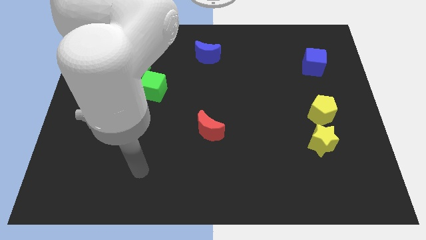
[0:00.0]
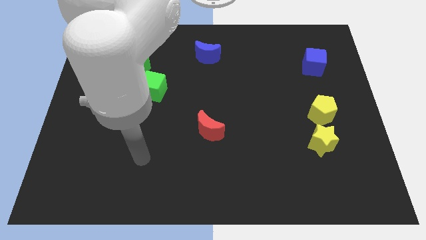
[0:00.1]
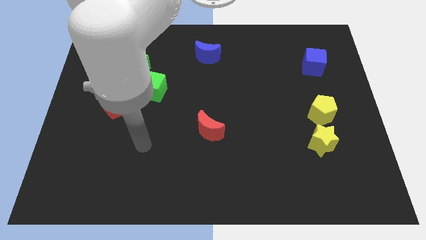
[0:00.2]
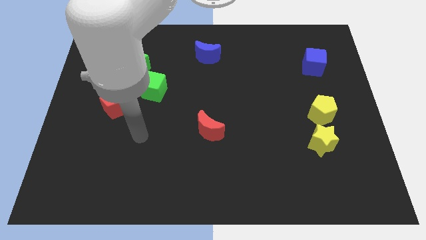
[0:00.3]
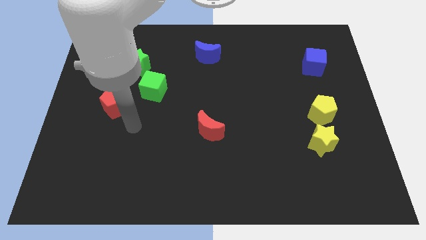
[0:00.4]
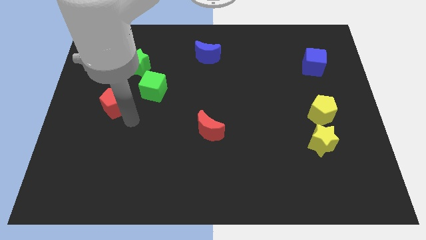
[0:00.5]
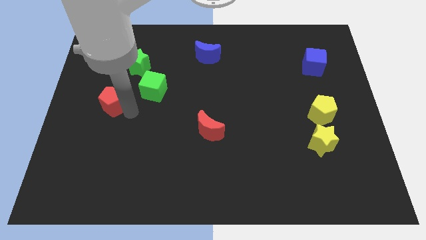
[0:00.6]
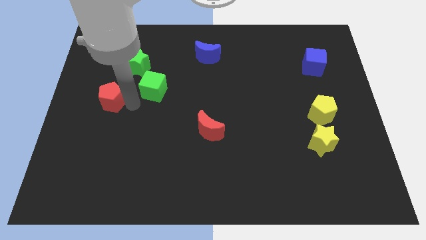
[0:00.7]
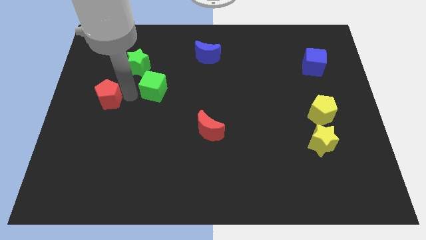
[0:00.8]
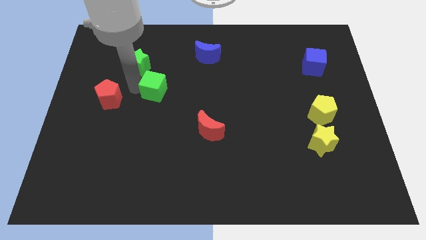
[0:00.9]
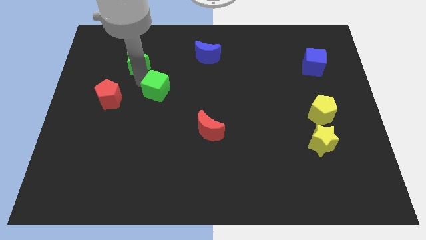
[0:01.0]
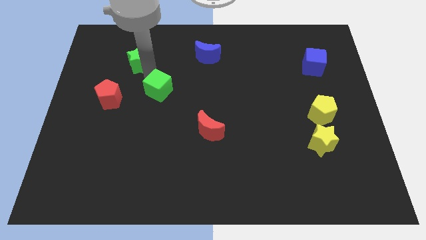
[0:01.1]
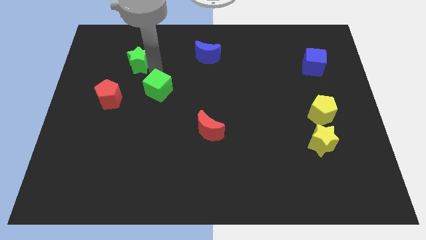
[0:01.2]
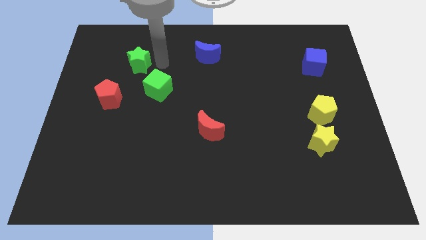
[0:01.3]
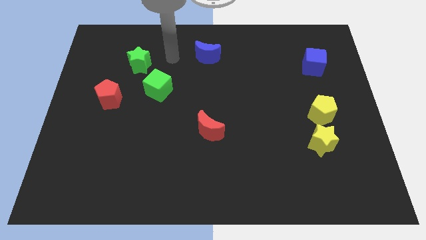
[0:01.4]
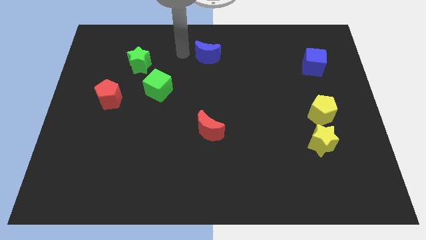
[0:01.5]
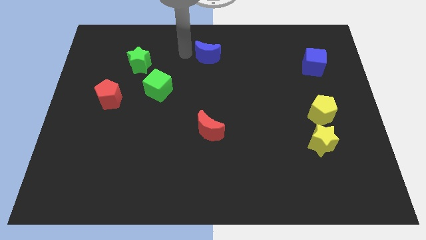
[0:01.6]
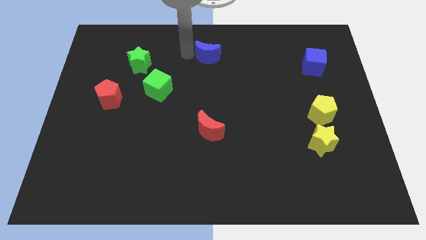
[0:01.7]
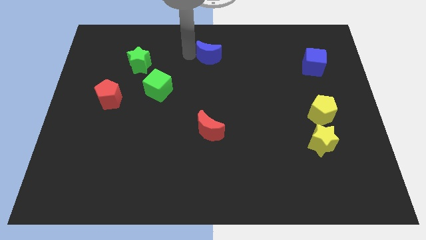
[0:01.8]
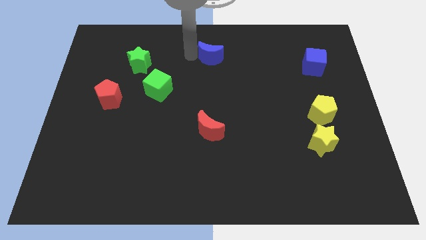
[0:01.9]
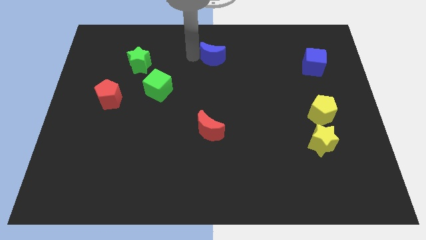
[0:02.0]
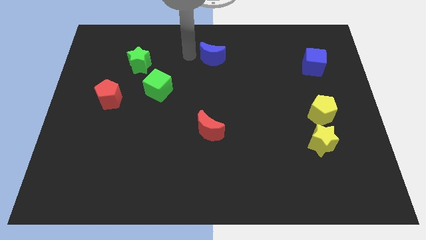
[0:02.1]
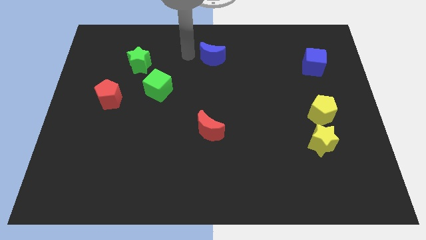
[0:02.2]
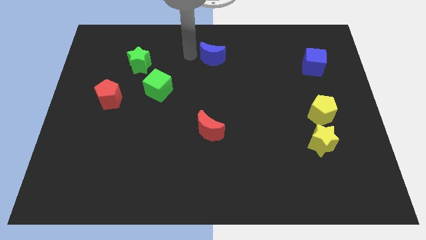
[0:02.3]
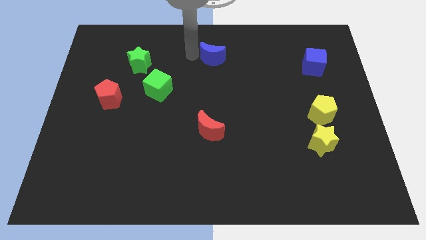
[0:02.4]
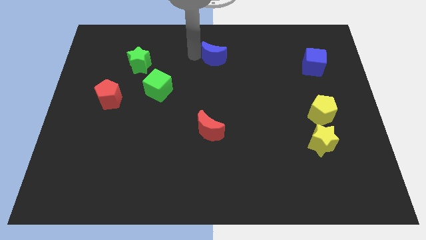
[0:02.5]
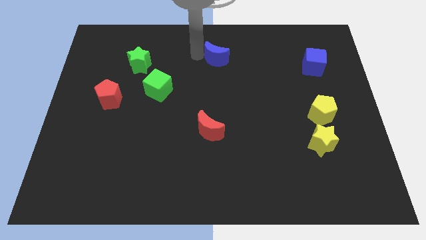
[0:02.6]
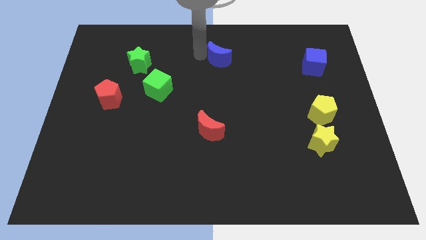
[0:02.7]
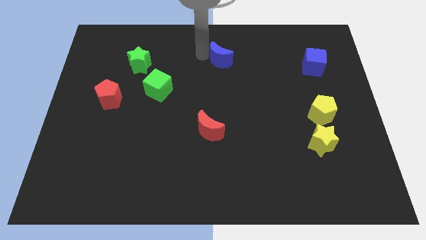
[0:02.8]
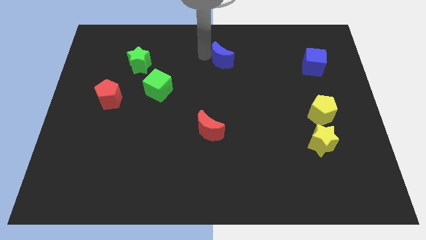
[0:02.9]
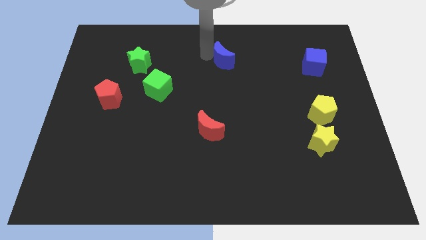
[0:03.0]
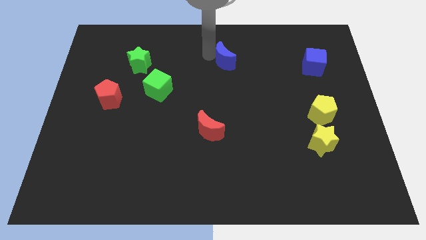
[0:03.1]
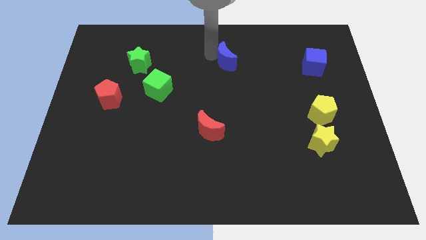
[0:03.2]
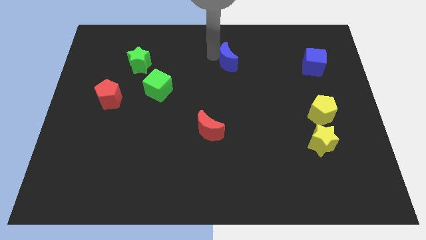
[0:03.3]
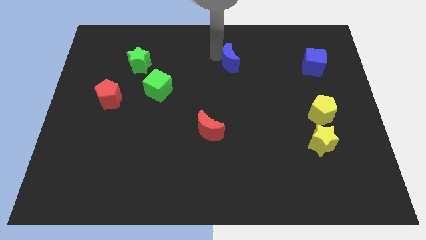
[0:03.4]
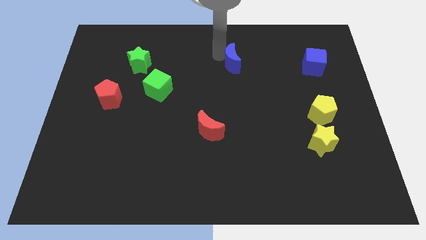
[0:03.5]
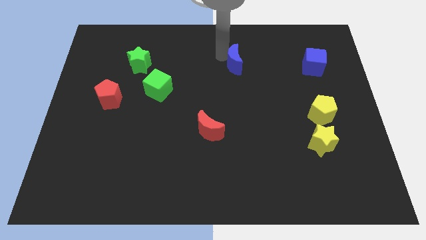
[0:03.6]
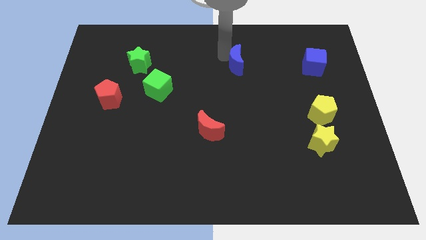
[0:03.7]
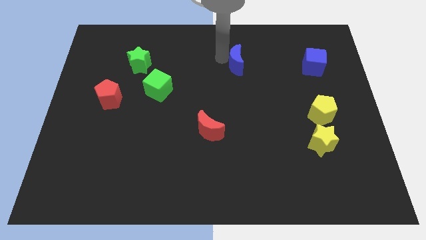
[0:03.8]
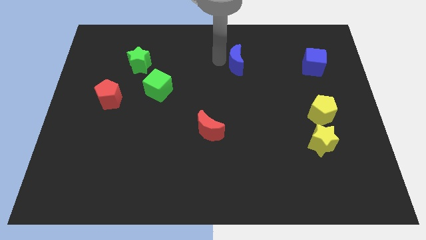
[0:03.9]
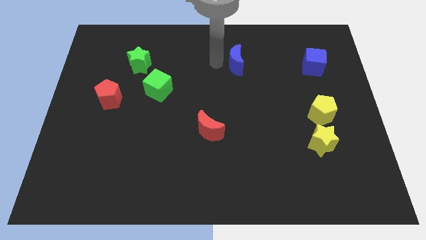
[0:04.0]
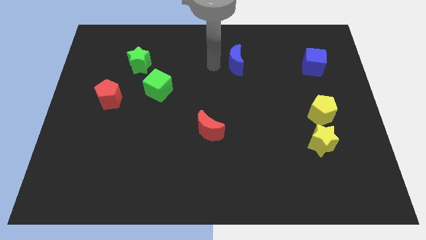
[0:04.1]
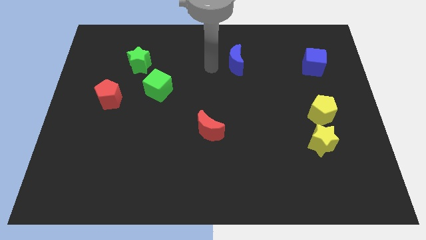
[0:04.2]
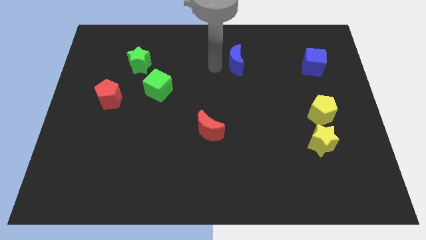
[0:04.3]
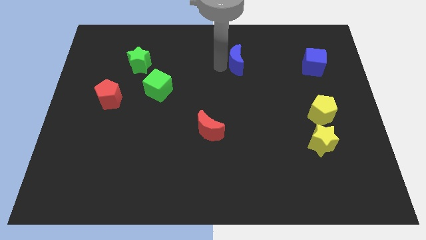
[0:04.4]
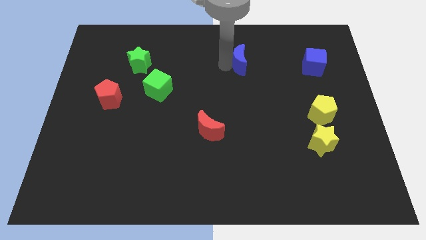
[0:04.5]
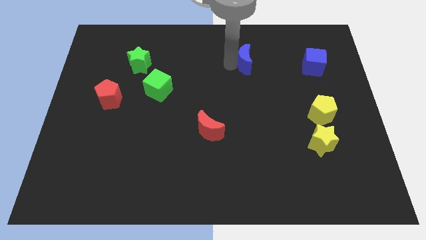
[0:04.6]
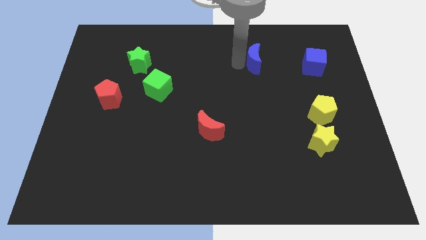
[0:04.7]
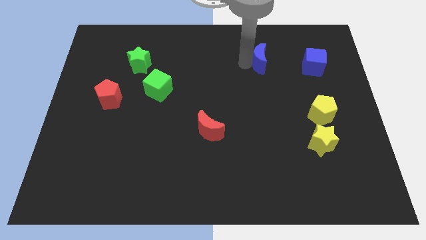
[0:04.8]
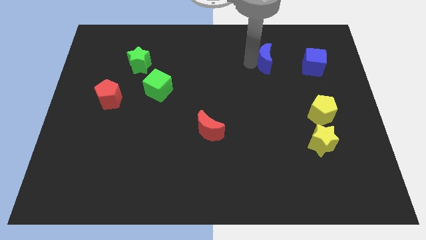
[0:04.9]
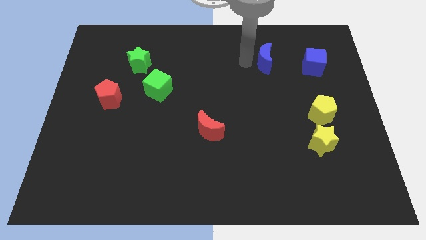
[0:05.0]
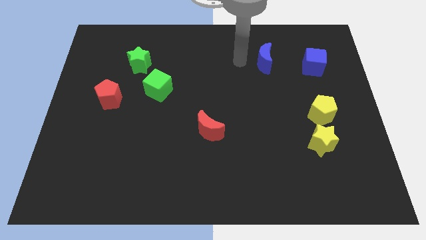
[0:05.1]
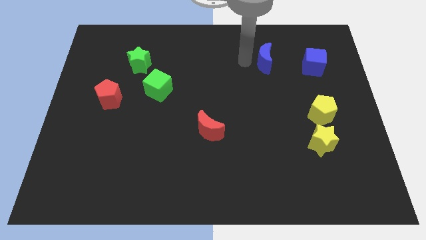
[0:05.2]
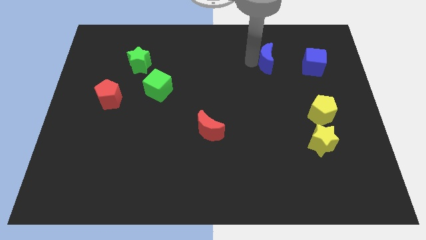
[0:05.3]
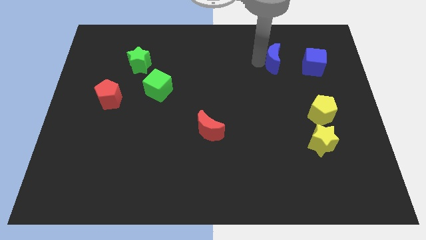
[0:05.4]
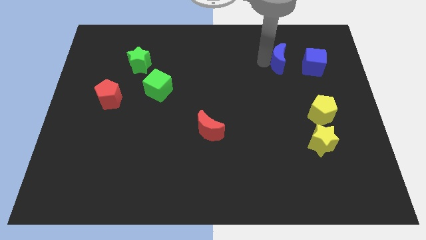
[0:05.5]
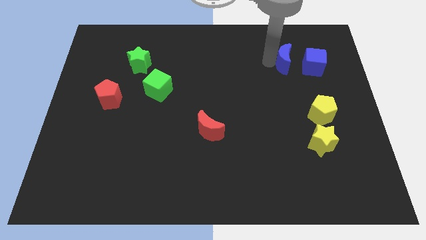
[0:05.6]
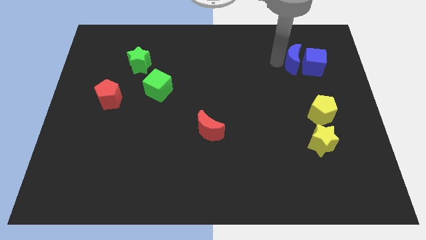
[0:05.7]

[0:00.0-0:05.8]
move the blue moon close to the blue cube

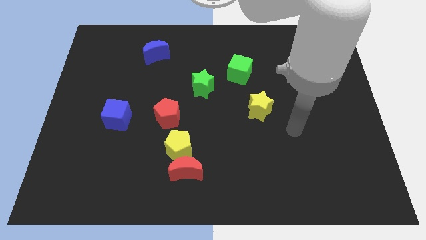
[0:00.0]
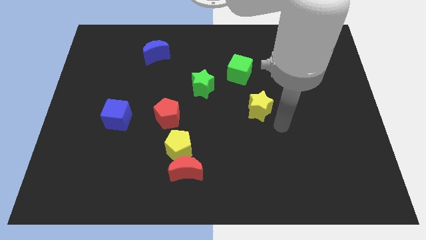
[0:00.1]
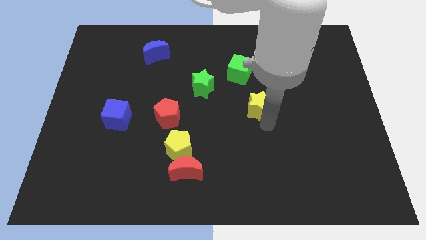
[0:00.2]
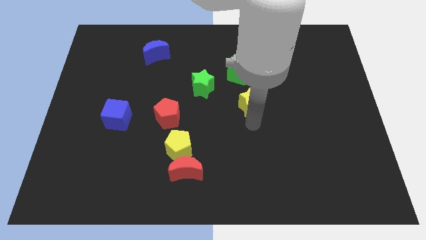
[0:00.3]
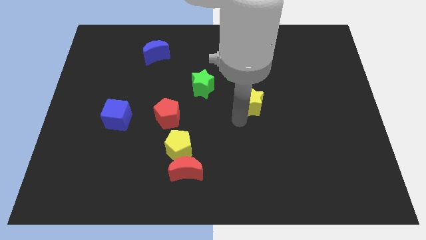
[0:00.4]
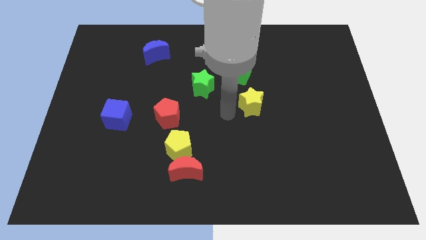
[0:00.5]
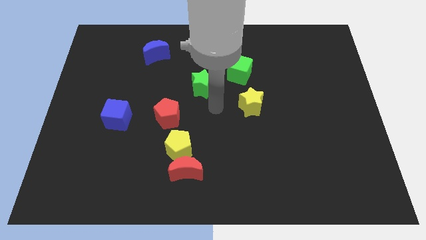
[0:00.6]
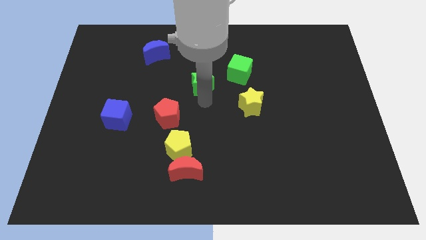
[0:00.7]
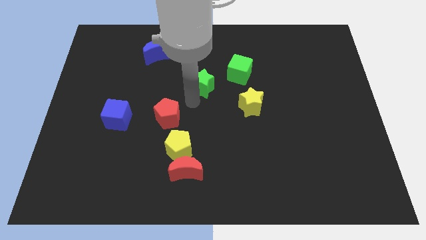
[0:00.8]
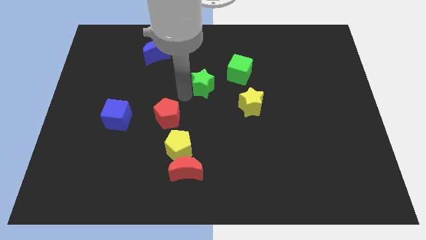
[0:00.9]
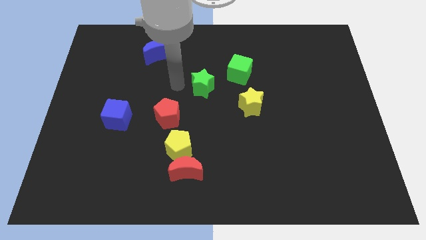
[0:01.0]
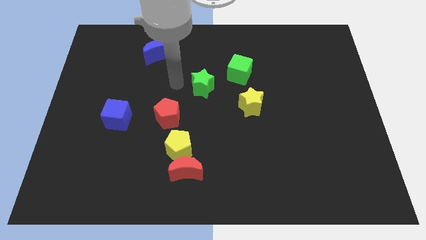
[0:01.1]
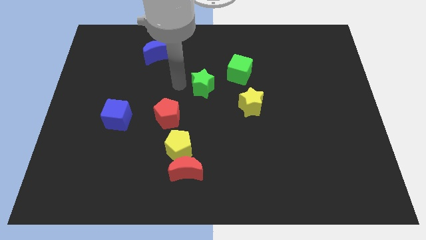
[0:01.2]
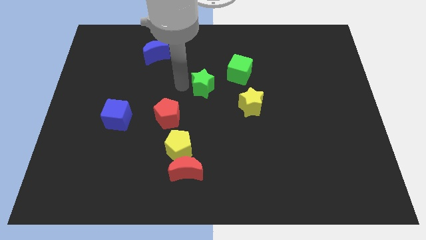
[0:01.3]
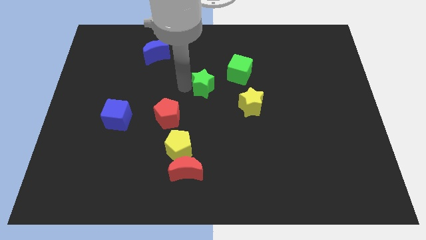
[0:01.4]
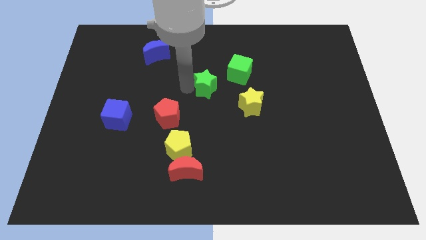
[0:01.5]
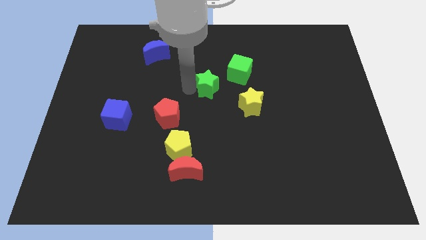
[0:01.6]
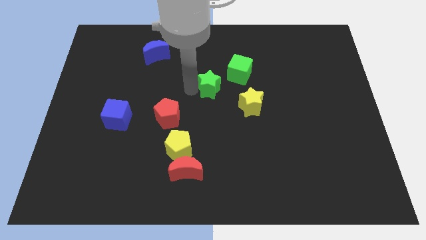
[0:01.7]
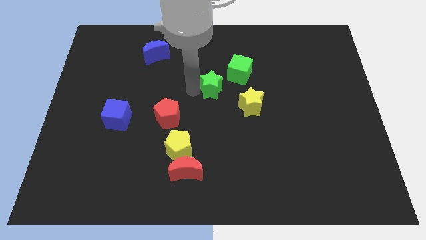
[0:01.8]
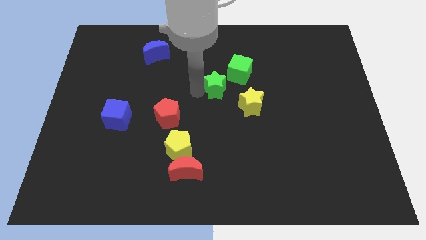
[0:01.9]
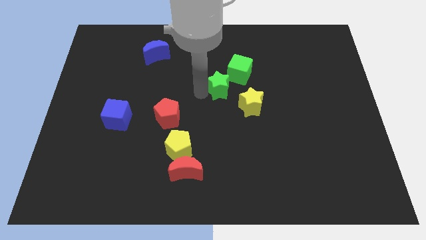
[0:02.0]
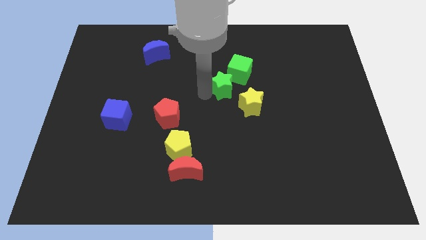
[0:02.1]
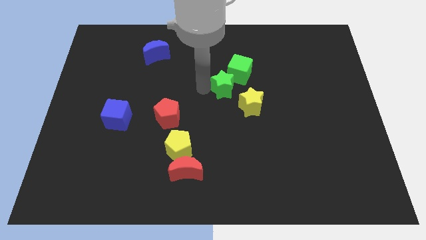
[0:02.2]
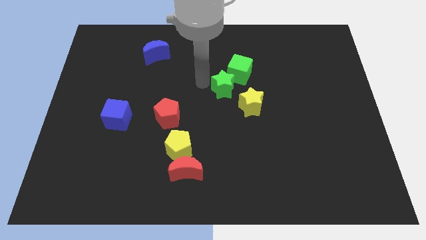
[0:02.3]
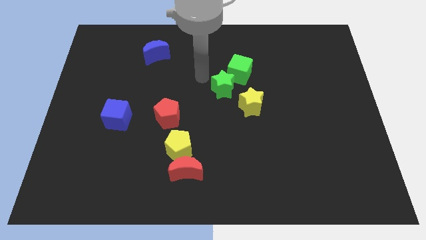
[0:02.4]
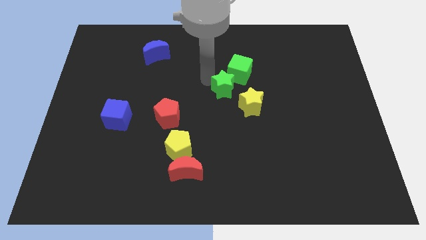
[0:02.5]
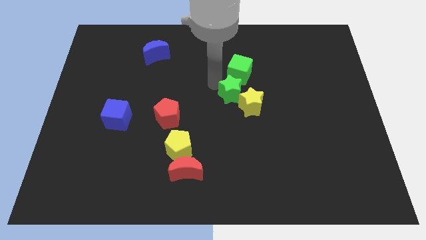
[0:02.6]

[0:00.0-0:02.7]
put the green star towards the yellow star
